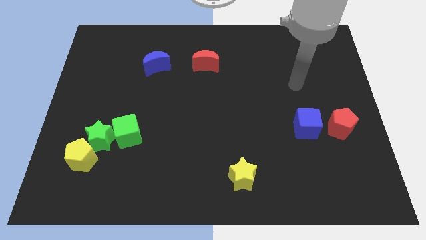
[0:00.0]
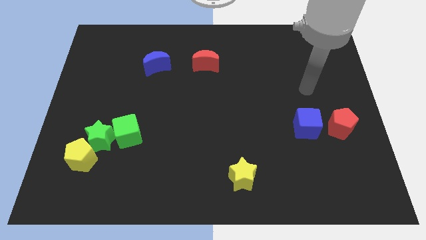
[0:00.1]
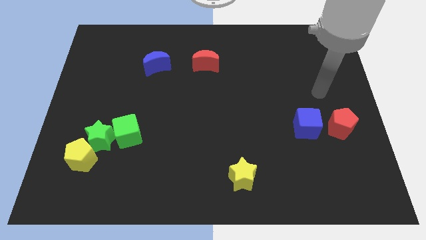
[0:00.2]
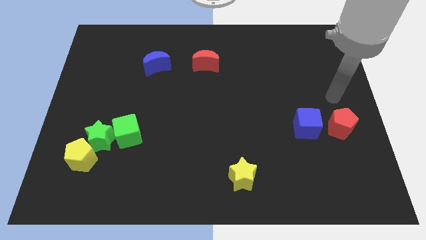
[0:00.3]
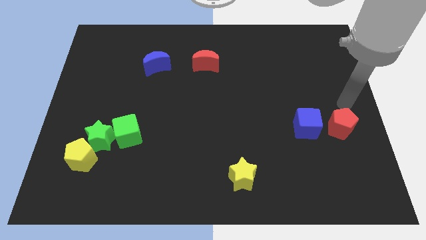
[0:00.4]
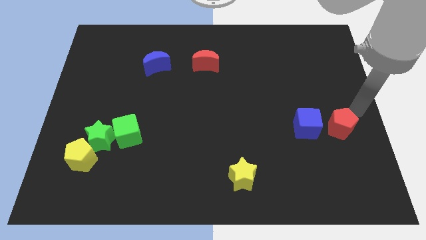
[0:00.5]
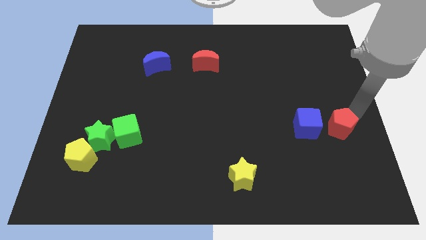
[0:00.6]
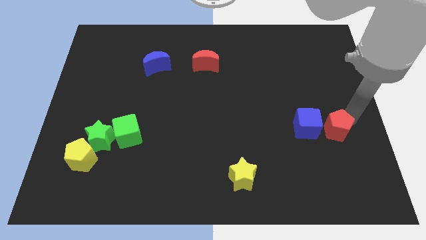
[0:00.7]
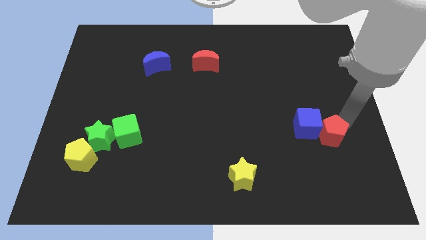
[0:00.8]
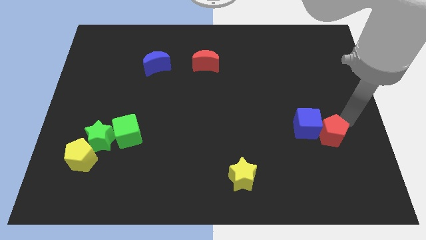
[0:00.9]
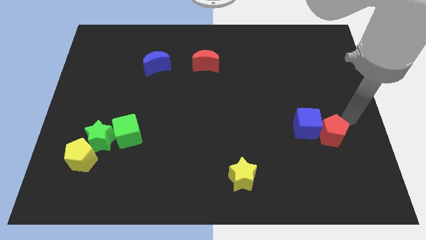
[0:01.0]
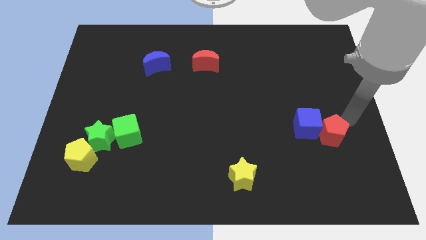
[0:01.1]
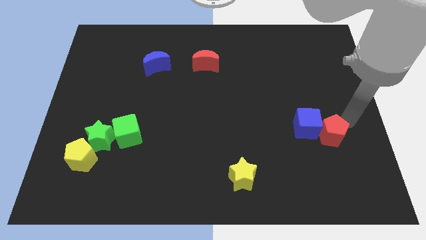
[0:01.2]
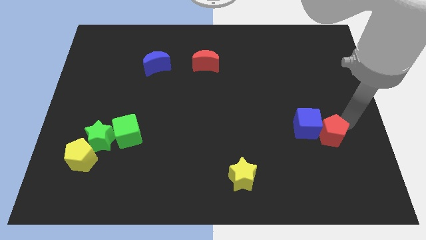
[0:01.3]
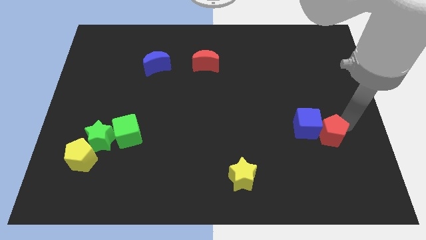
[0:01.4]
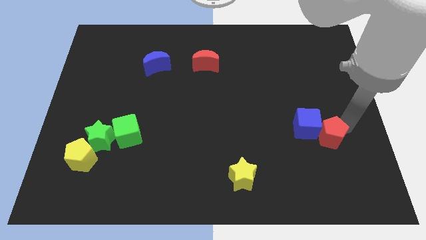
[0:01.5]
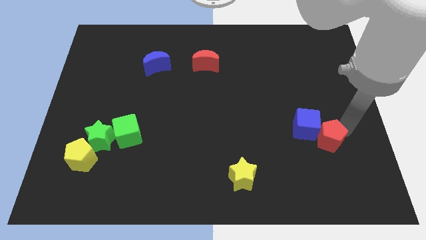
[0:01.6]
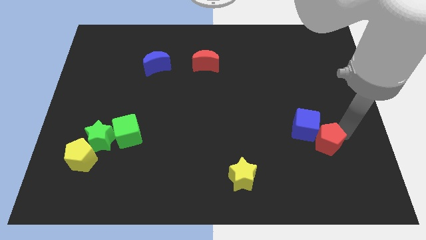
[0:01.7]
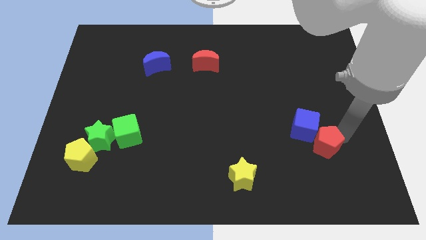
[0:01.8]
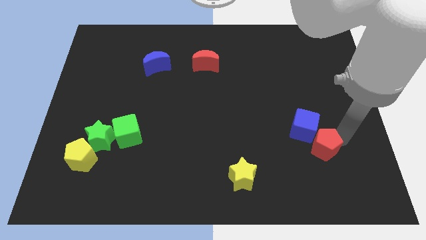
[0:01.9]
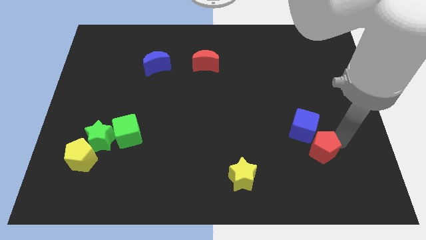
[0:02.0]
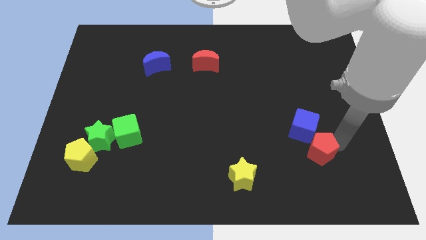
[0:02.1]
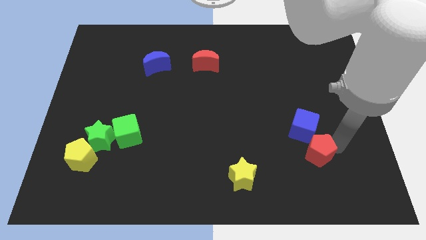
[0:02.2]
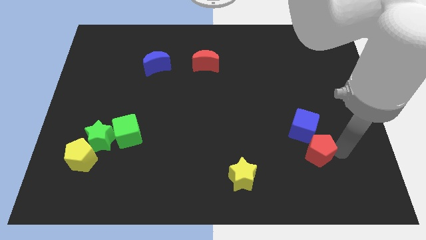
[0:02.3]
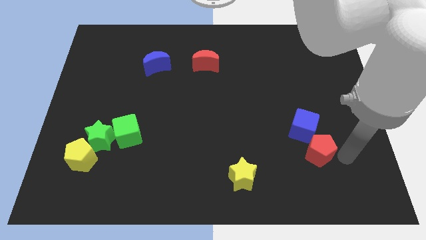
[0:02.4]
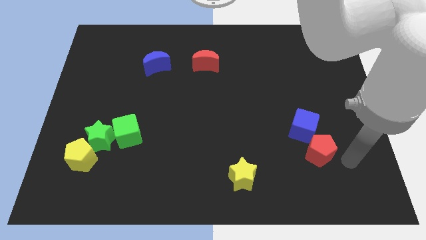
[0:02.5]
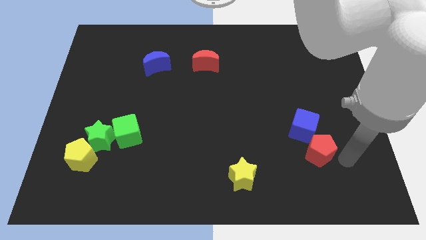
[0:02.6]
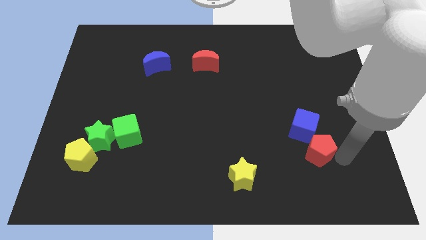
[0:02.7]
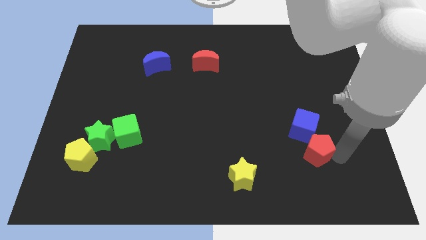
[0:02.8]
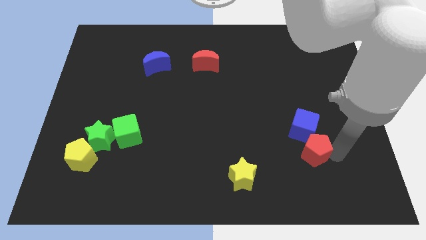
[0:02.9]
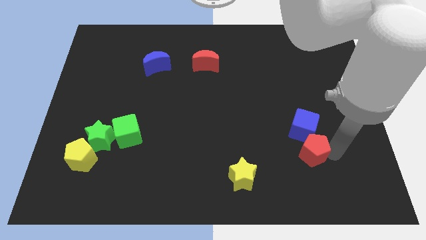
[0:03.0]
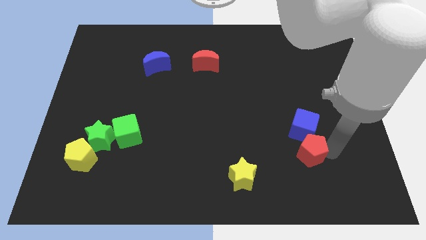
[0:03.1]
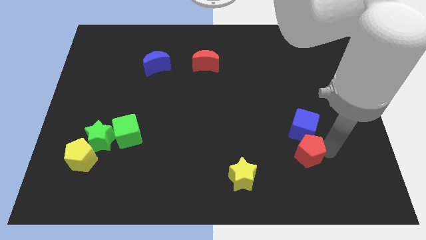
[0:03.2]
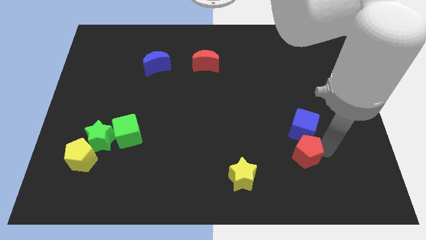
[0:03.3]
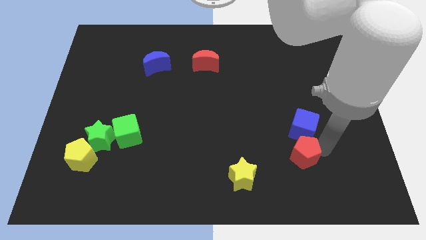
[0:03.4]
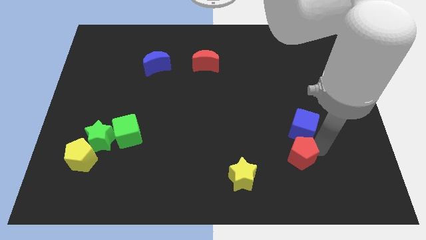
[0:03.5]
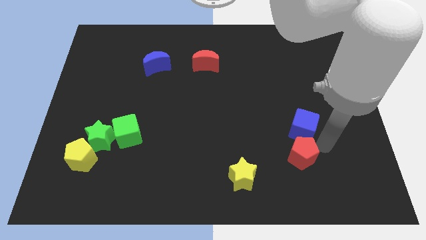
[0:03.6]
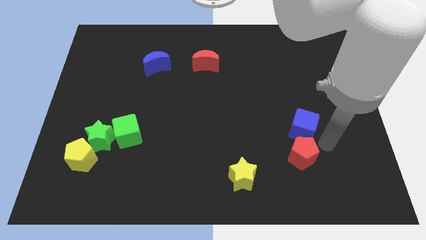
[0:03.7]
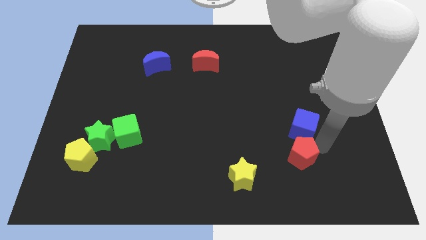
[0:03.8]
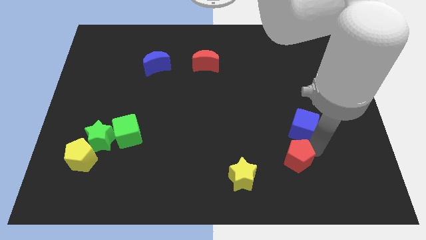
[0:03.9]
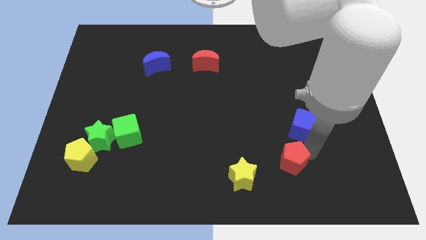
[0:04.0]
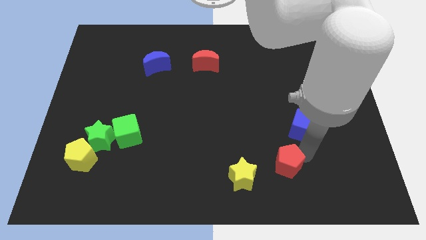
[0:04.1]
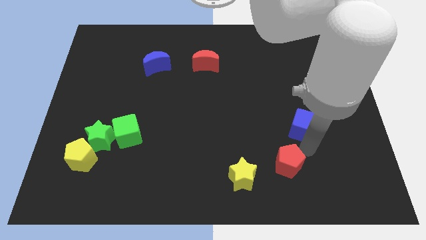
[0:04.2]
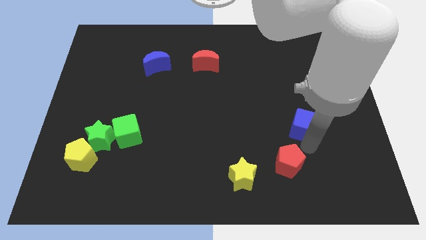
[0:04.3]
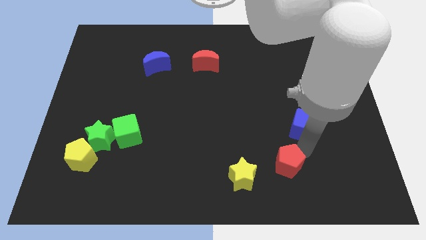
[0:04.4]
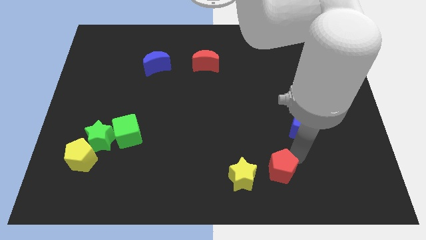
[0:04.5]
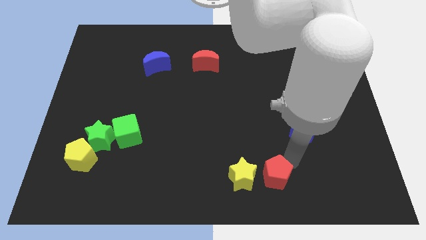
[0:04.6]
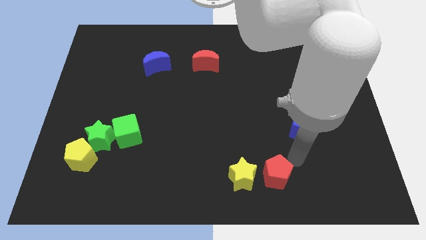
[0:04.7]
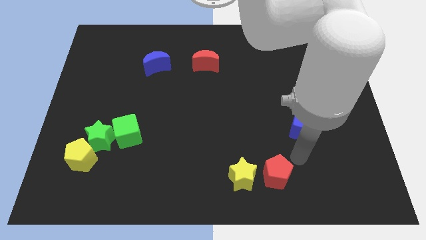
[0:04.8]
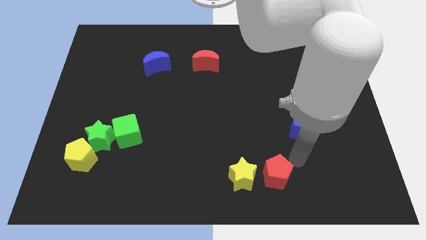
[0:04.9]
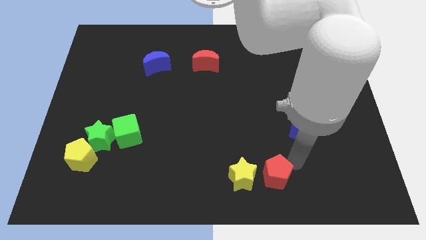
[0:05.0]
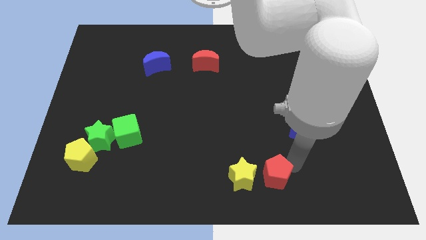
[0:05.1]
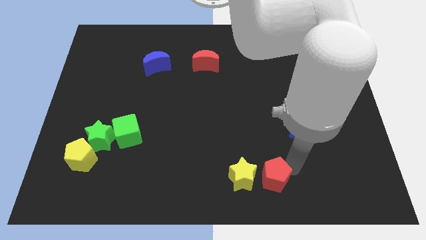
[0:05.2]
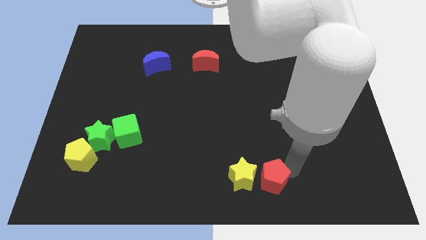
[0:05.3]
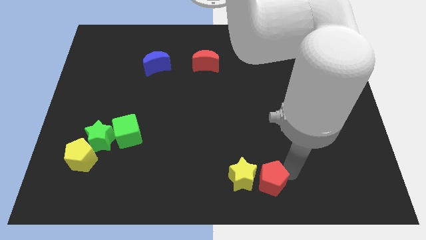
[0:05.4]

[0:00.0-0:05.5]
push the red pentagon to the bottom
